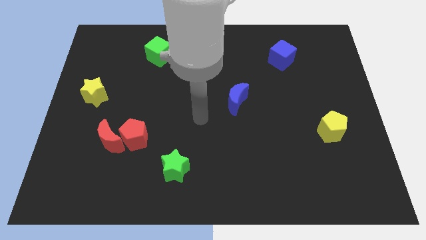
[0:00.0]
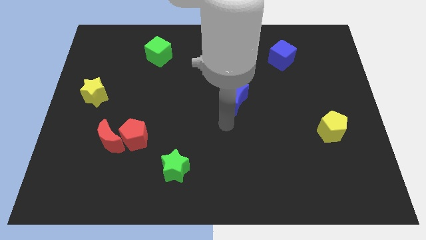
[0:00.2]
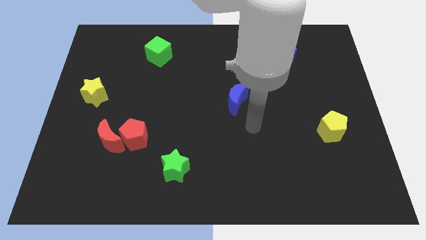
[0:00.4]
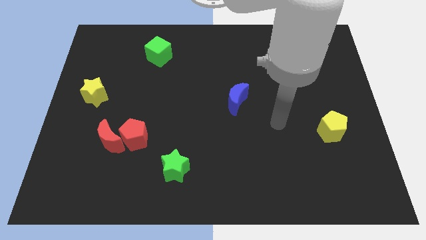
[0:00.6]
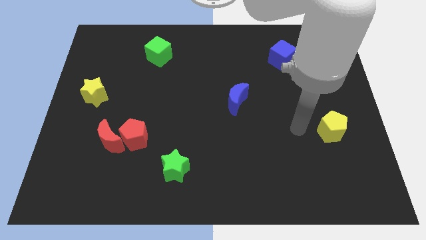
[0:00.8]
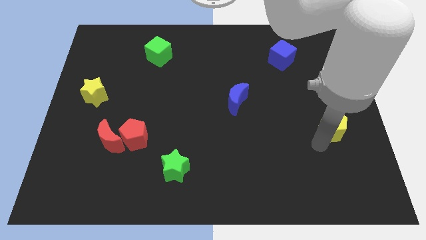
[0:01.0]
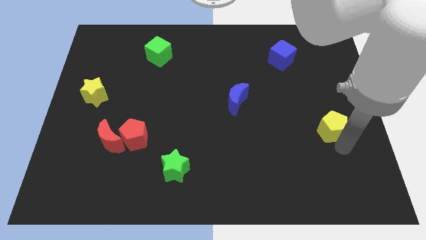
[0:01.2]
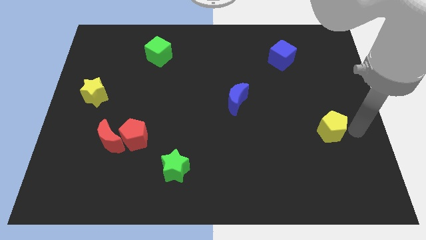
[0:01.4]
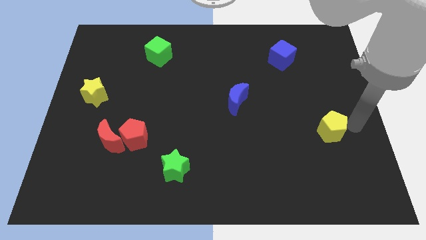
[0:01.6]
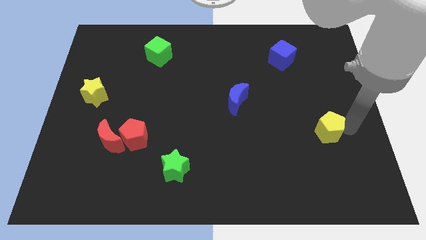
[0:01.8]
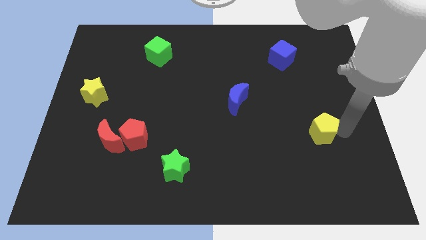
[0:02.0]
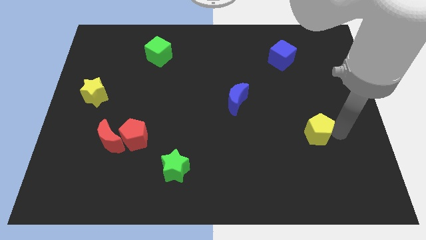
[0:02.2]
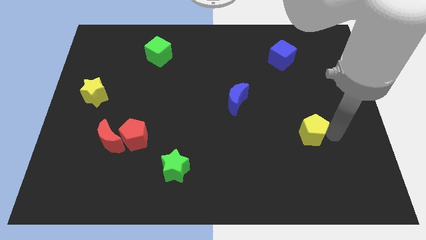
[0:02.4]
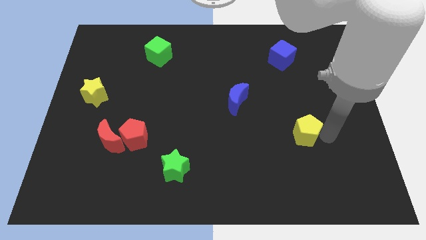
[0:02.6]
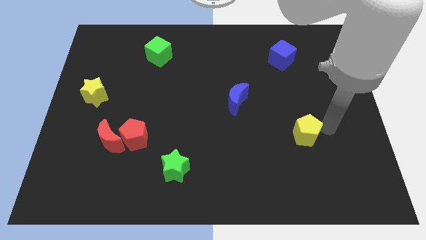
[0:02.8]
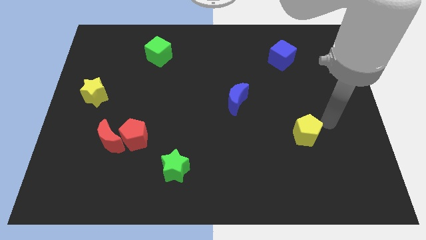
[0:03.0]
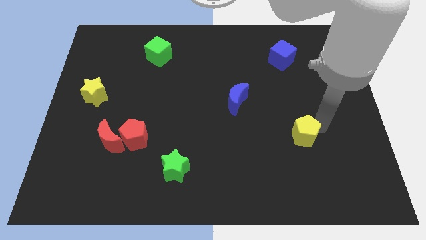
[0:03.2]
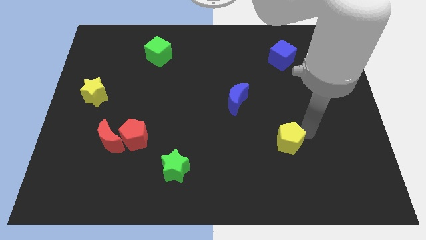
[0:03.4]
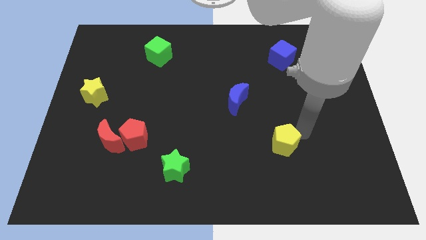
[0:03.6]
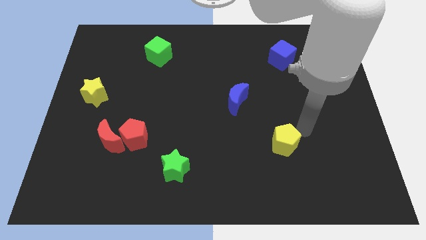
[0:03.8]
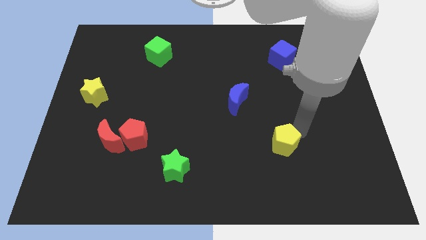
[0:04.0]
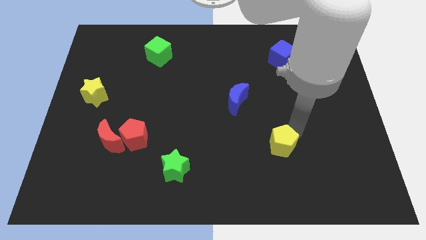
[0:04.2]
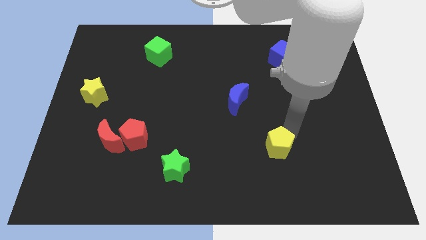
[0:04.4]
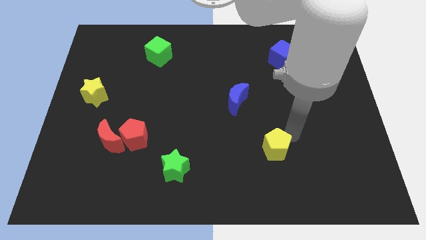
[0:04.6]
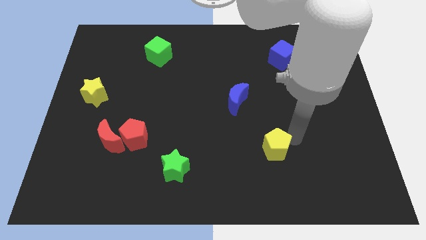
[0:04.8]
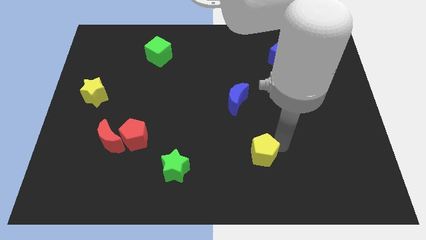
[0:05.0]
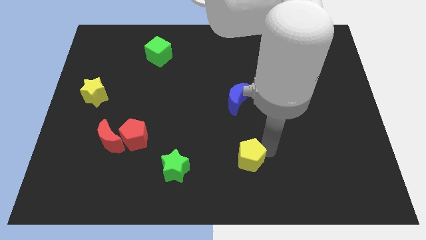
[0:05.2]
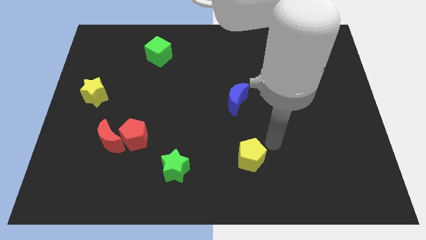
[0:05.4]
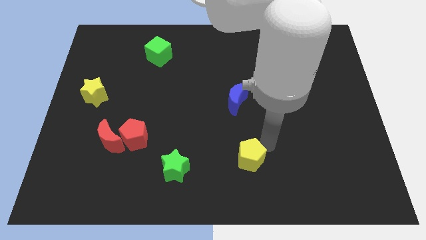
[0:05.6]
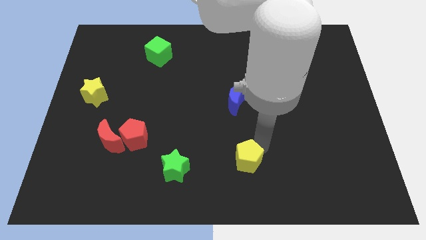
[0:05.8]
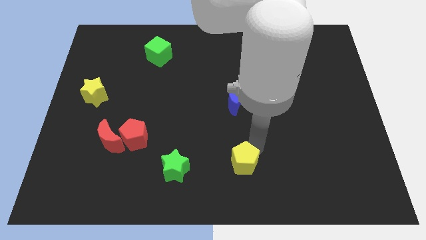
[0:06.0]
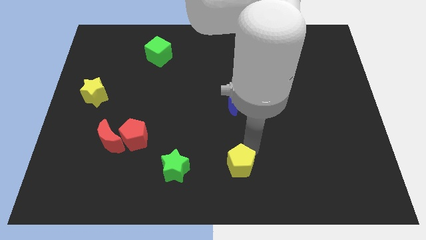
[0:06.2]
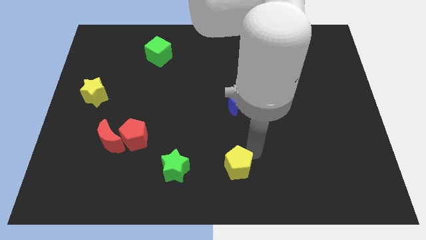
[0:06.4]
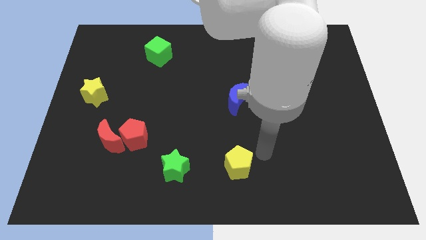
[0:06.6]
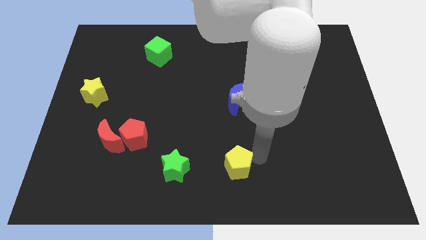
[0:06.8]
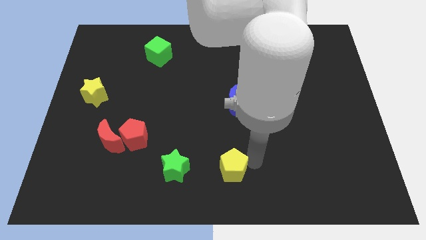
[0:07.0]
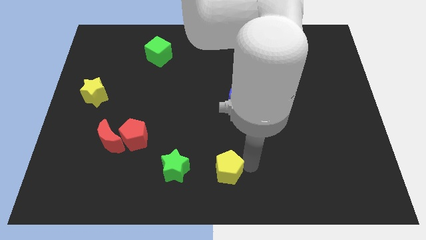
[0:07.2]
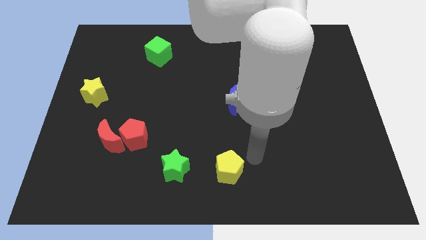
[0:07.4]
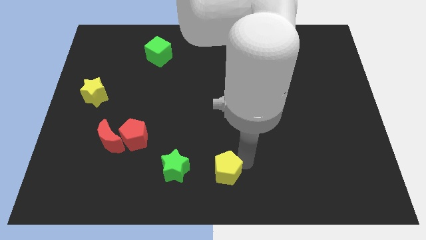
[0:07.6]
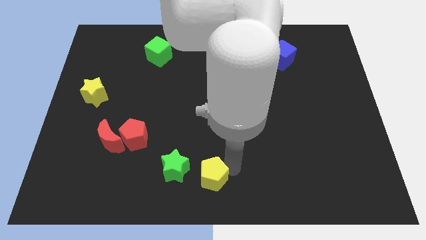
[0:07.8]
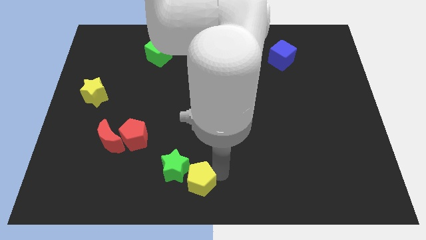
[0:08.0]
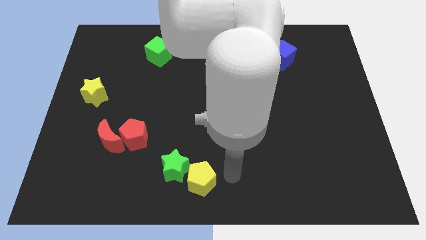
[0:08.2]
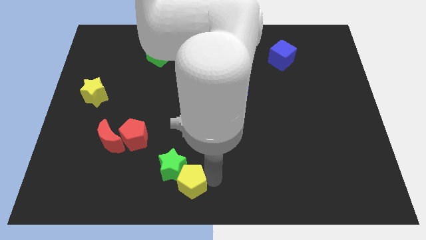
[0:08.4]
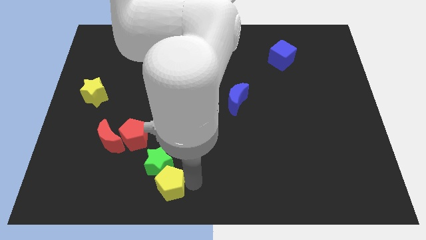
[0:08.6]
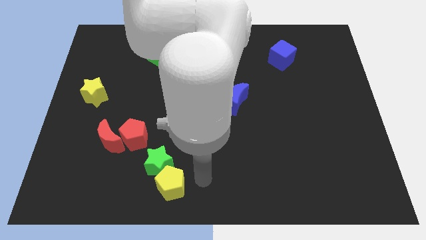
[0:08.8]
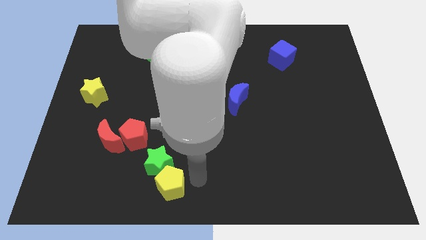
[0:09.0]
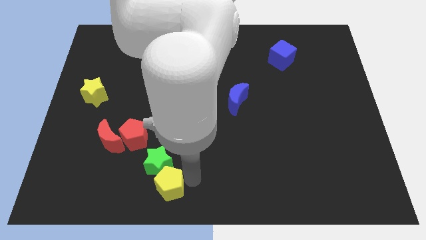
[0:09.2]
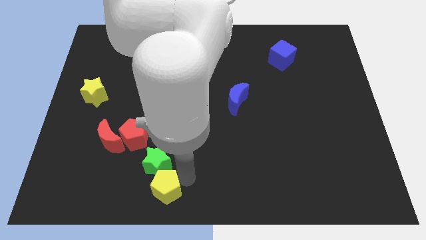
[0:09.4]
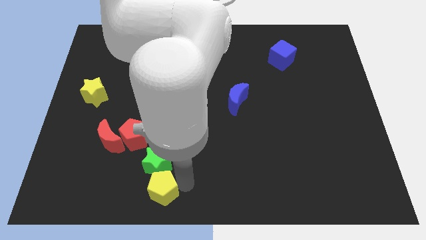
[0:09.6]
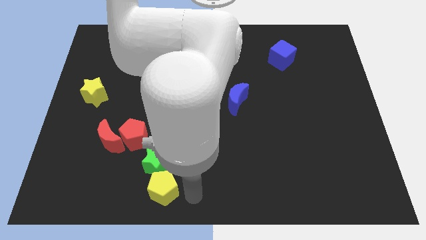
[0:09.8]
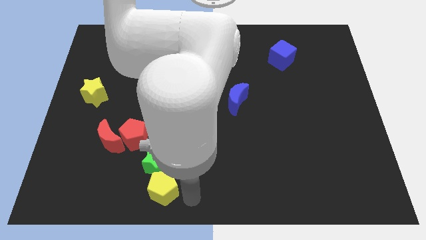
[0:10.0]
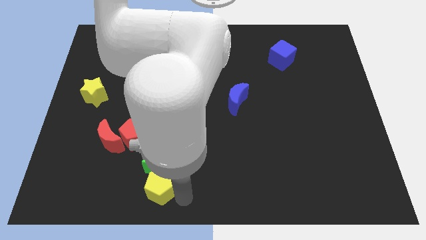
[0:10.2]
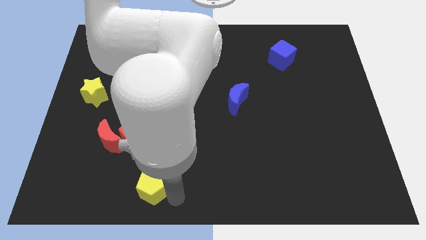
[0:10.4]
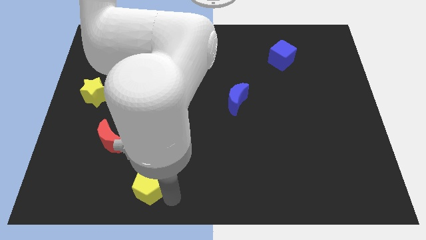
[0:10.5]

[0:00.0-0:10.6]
slide the yellow pentagon to the bottom side of the red pentagon
